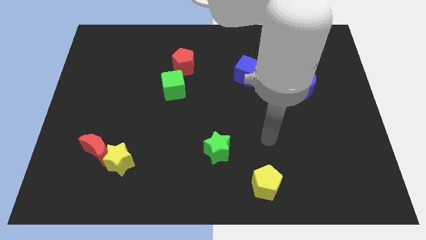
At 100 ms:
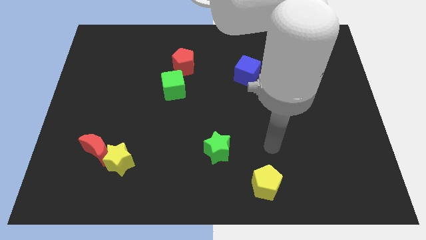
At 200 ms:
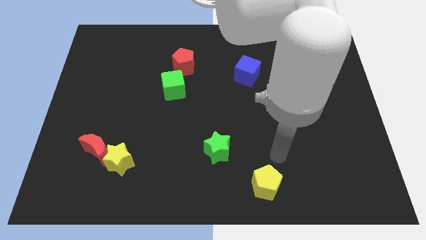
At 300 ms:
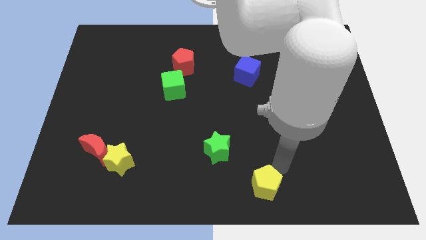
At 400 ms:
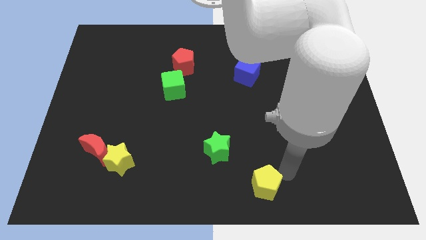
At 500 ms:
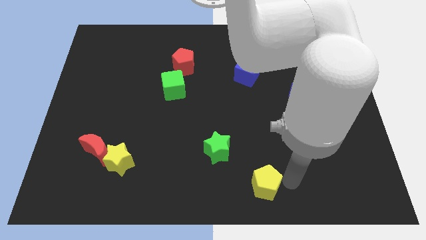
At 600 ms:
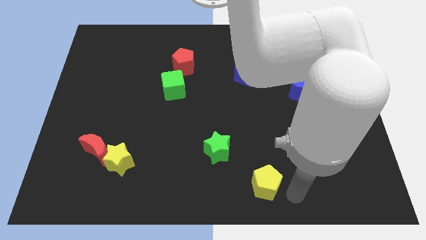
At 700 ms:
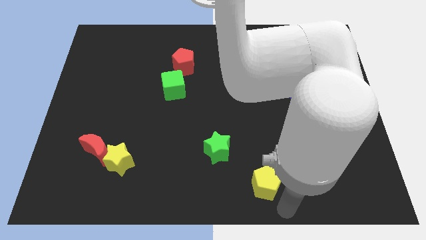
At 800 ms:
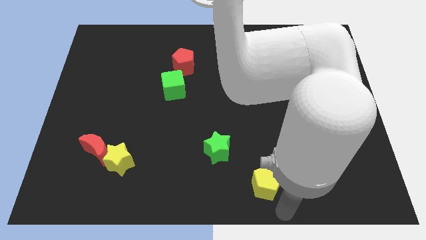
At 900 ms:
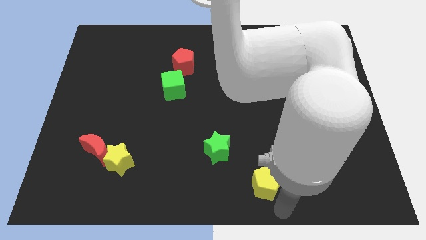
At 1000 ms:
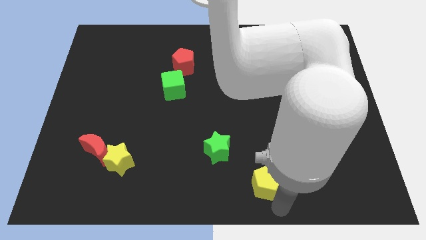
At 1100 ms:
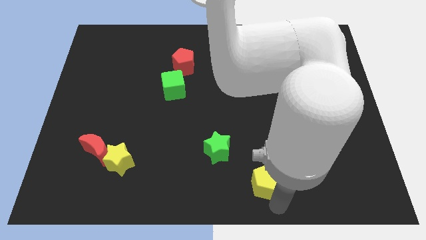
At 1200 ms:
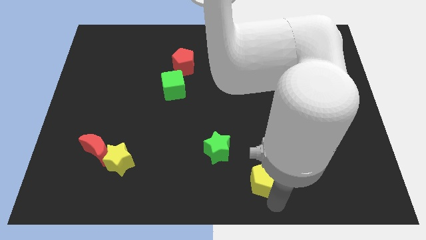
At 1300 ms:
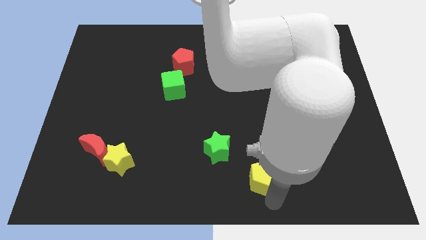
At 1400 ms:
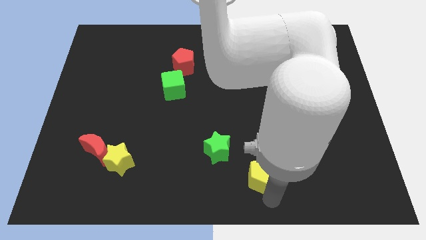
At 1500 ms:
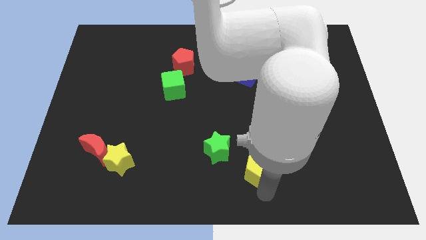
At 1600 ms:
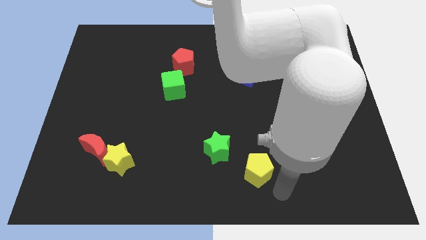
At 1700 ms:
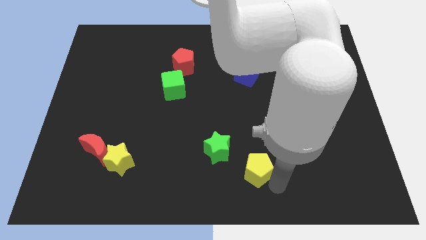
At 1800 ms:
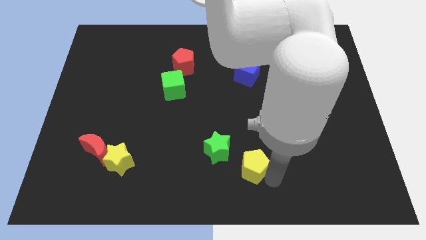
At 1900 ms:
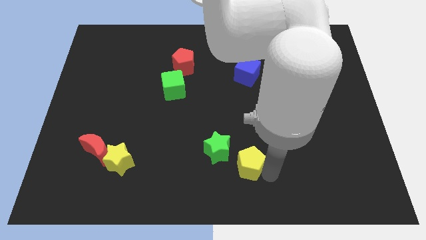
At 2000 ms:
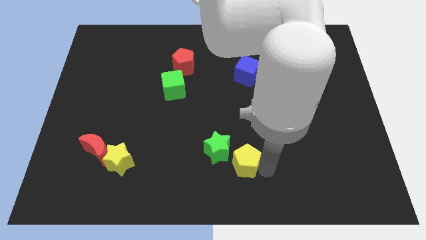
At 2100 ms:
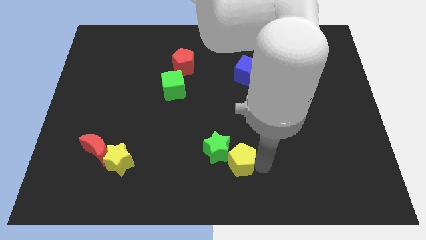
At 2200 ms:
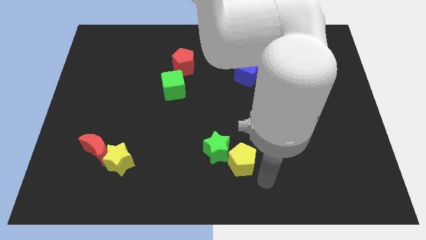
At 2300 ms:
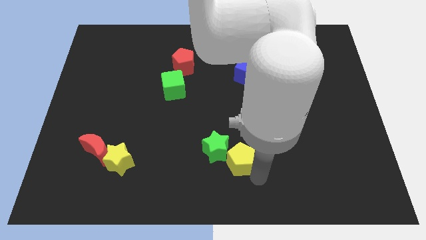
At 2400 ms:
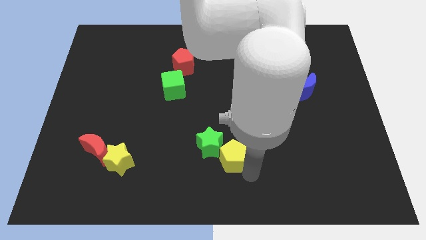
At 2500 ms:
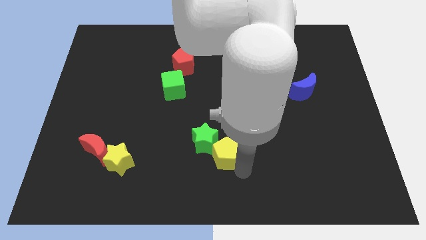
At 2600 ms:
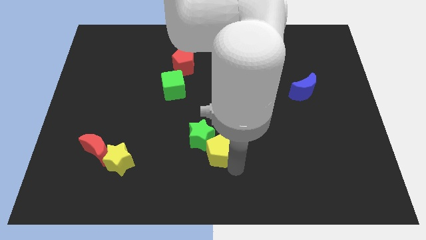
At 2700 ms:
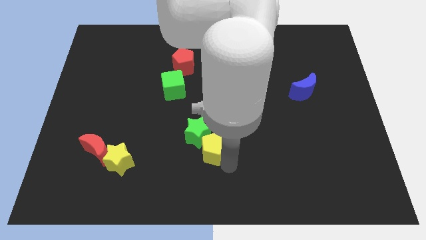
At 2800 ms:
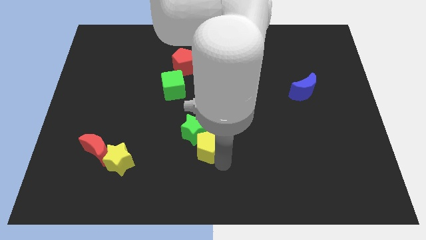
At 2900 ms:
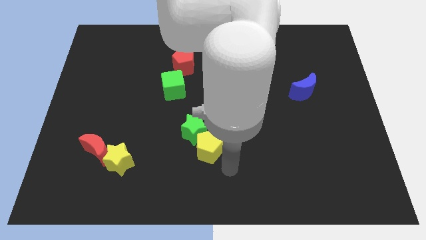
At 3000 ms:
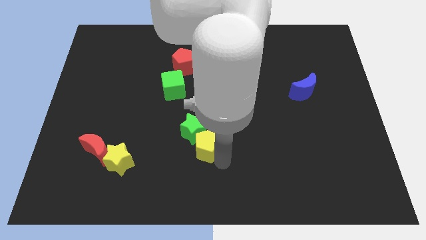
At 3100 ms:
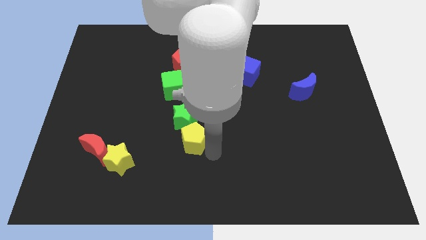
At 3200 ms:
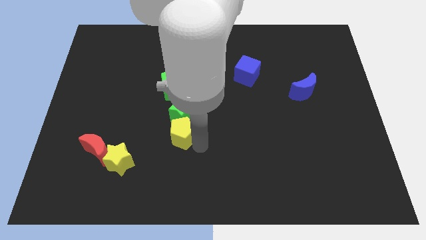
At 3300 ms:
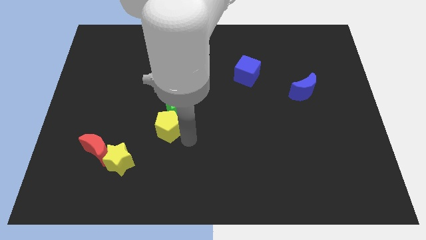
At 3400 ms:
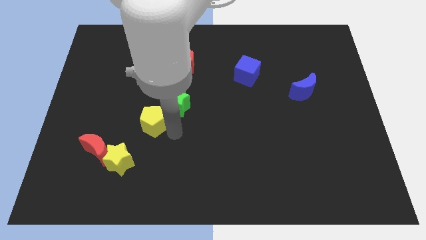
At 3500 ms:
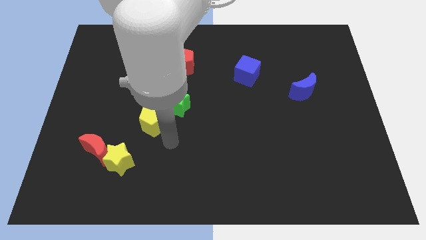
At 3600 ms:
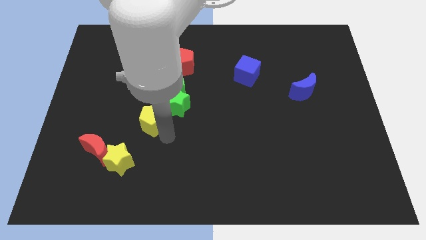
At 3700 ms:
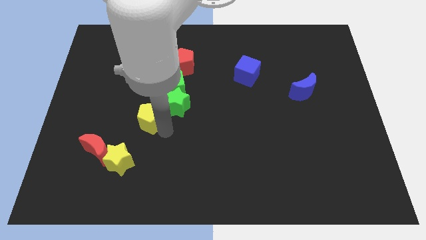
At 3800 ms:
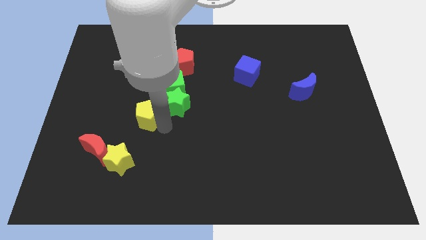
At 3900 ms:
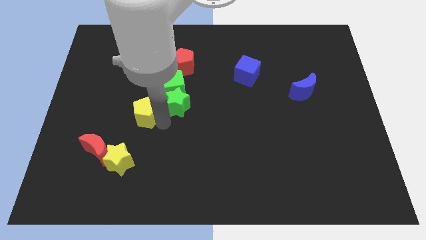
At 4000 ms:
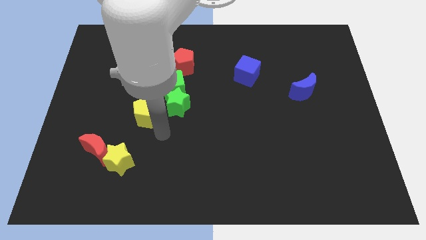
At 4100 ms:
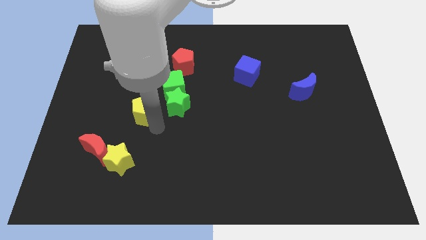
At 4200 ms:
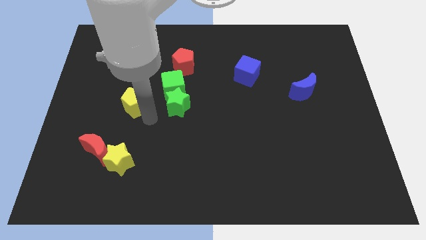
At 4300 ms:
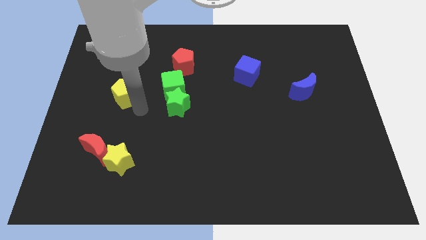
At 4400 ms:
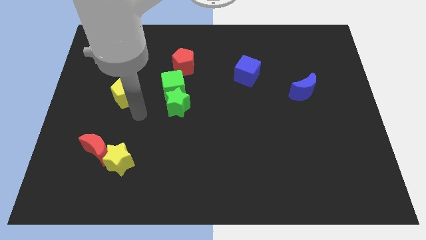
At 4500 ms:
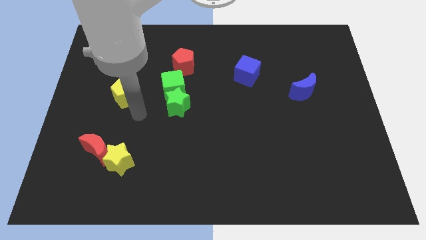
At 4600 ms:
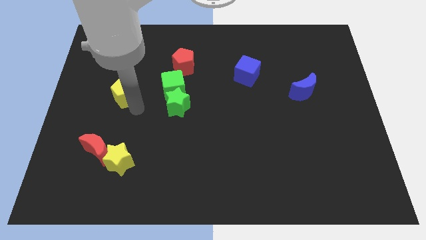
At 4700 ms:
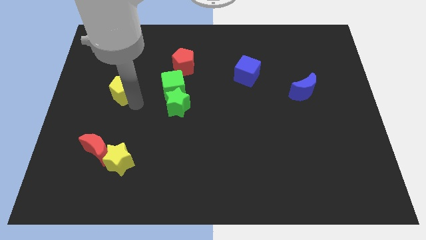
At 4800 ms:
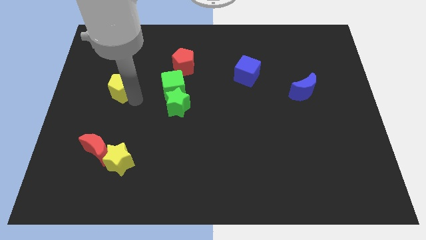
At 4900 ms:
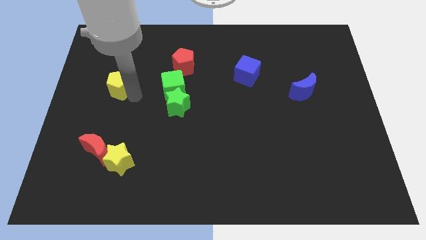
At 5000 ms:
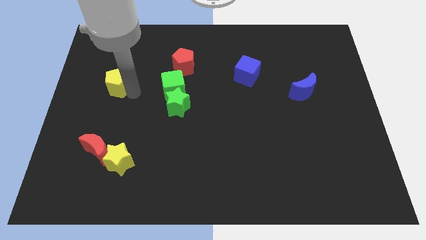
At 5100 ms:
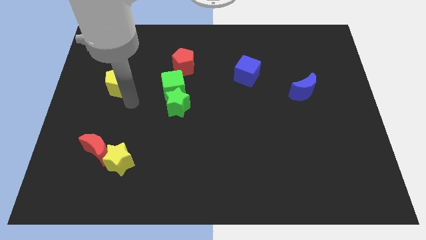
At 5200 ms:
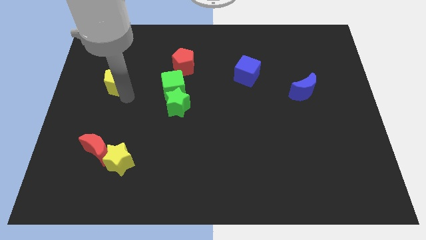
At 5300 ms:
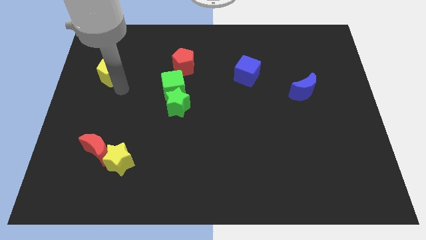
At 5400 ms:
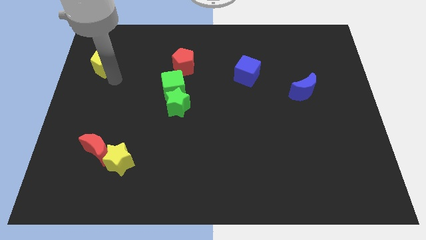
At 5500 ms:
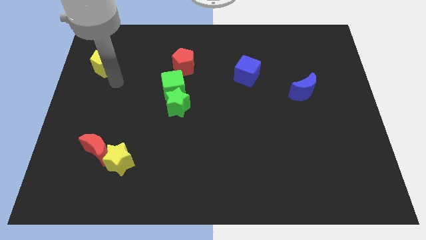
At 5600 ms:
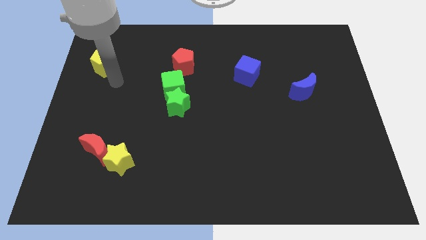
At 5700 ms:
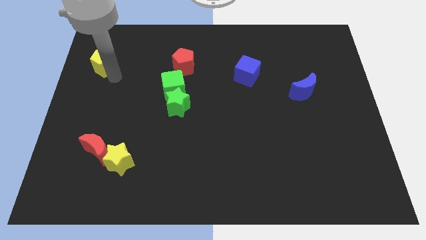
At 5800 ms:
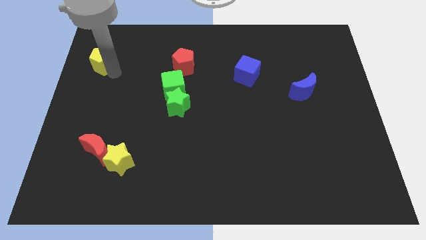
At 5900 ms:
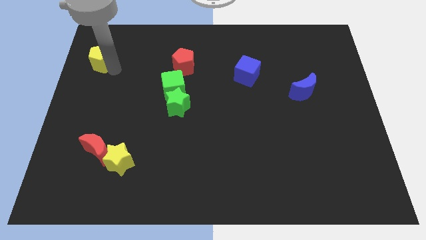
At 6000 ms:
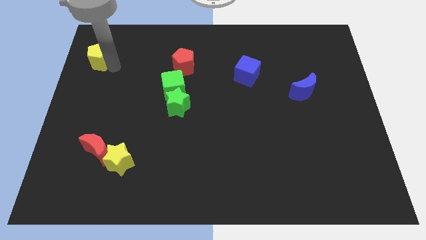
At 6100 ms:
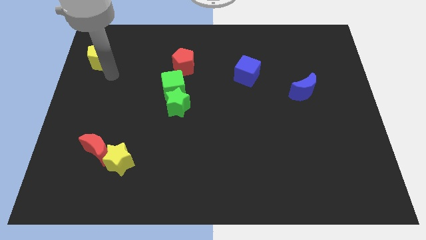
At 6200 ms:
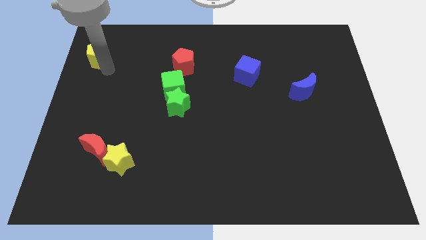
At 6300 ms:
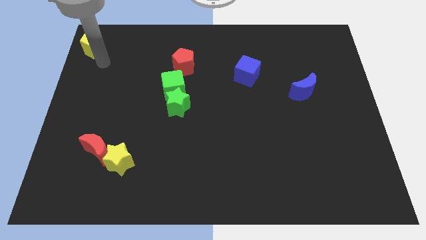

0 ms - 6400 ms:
slide the yellow pentagon to the top left
